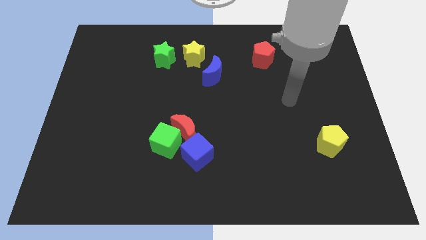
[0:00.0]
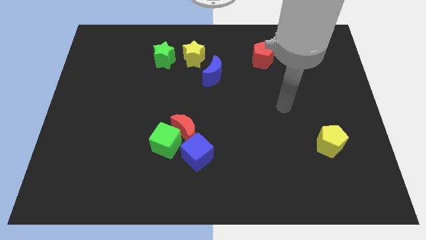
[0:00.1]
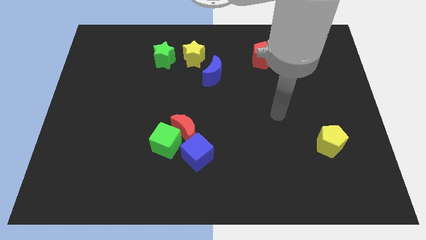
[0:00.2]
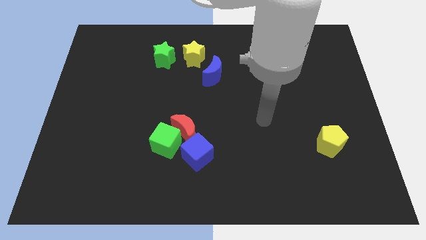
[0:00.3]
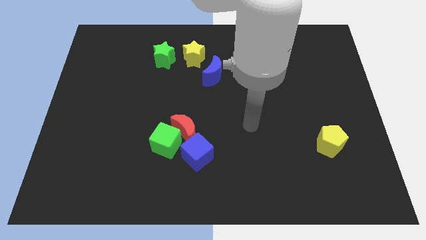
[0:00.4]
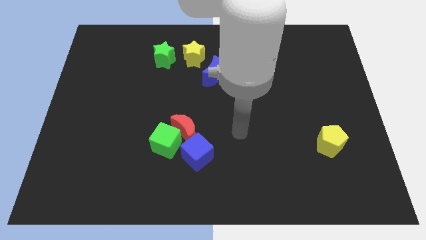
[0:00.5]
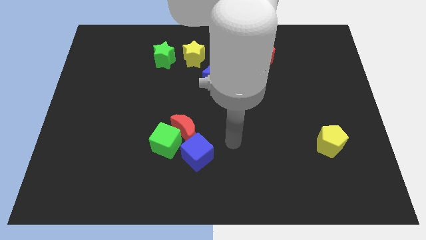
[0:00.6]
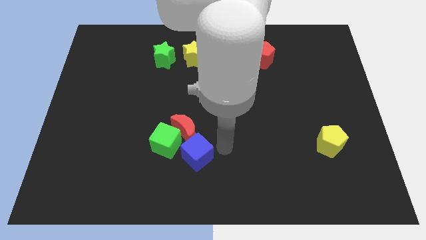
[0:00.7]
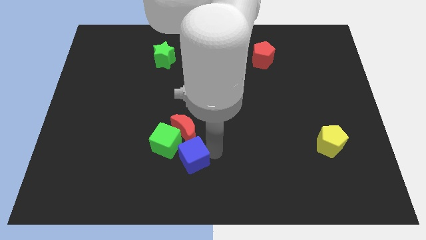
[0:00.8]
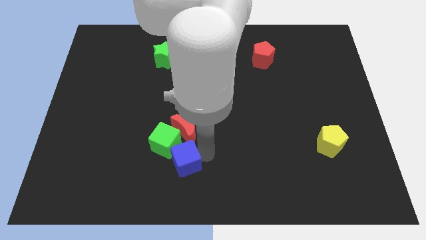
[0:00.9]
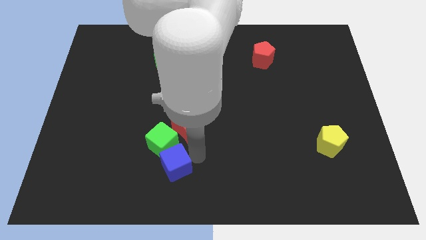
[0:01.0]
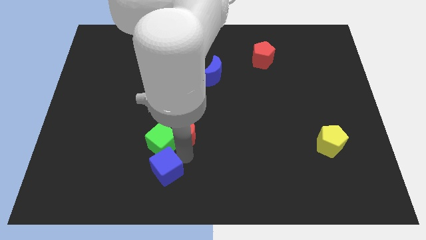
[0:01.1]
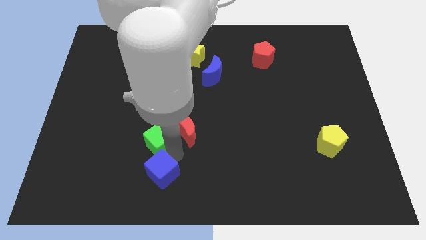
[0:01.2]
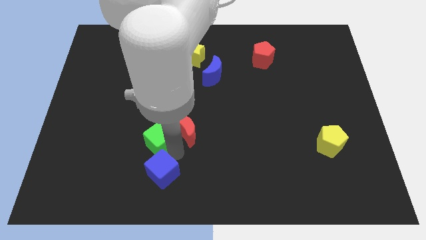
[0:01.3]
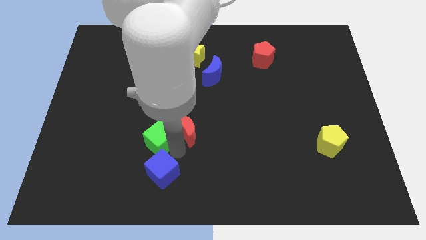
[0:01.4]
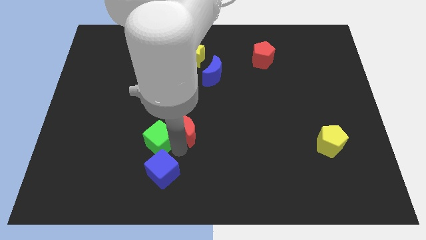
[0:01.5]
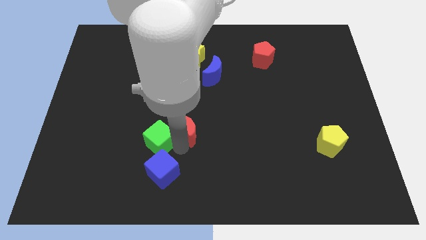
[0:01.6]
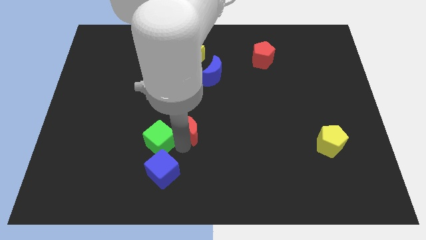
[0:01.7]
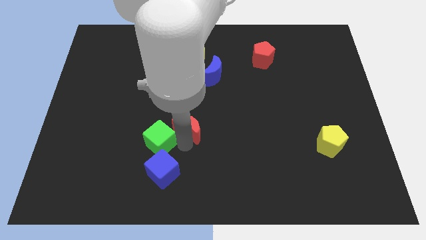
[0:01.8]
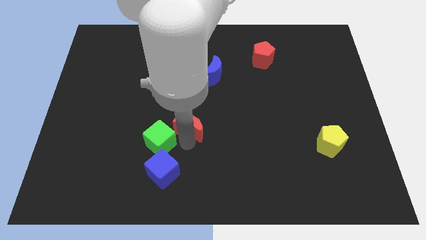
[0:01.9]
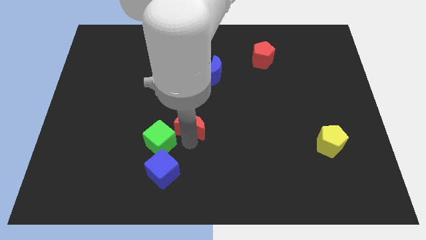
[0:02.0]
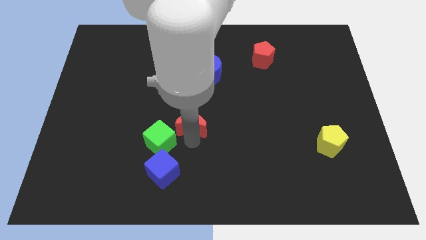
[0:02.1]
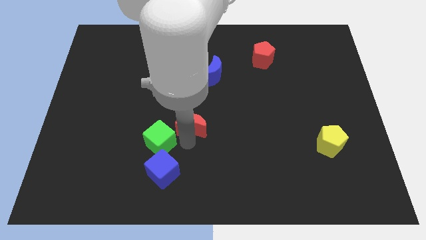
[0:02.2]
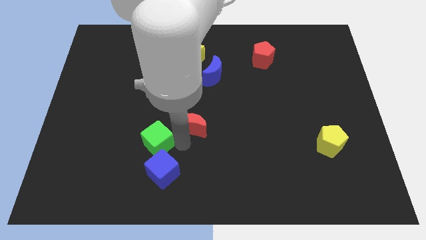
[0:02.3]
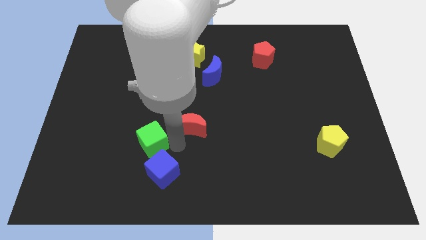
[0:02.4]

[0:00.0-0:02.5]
pull the red moon apart from the green cube and blue cube

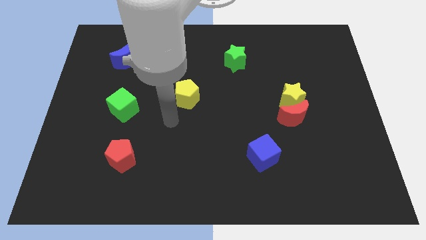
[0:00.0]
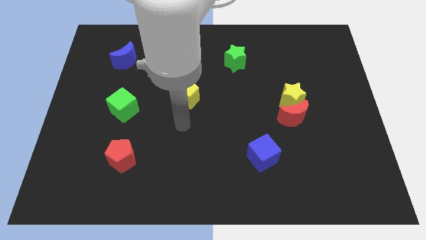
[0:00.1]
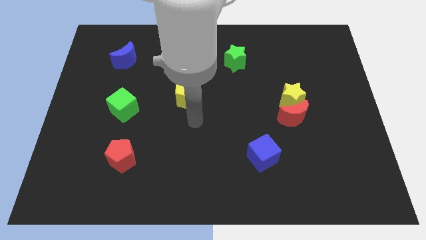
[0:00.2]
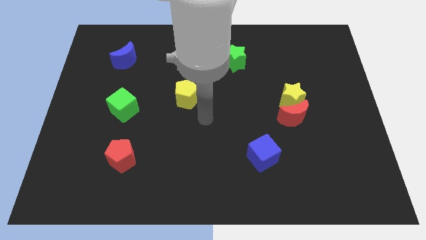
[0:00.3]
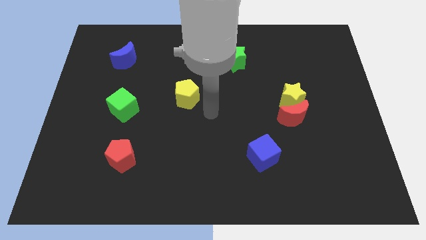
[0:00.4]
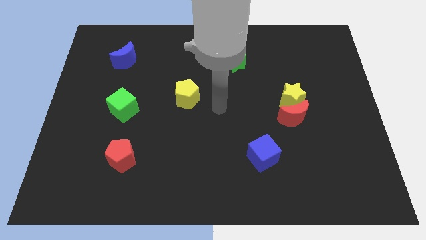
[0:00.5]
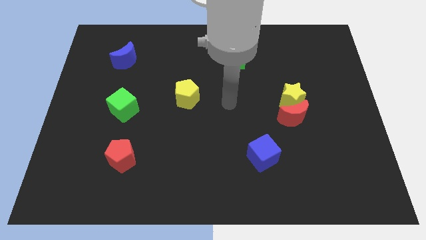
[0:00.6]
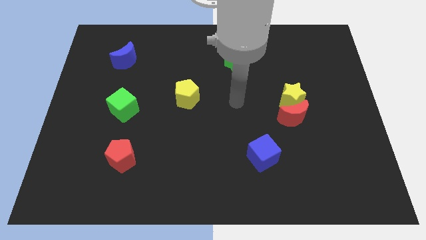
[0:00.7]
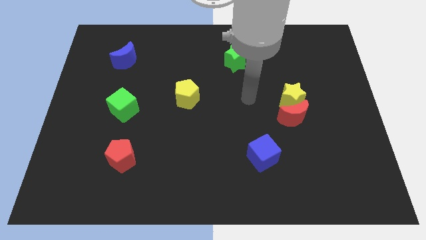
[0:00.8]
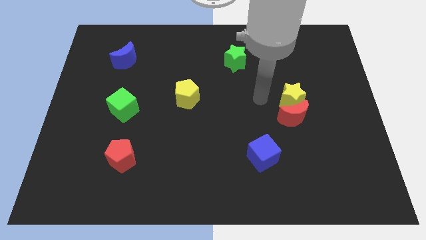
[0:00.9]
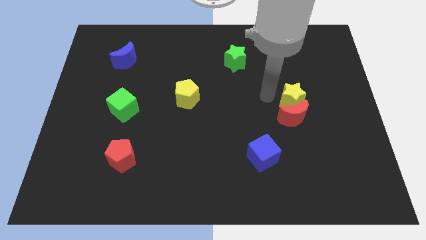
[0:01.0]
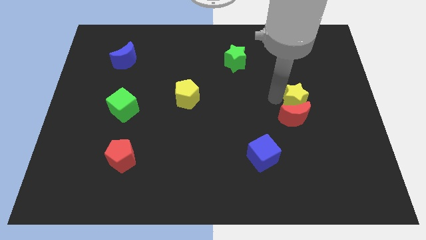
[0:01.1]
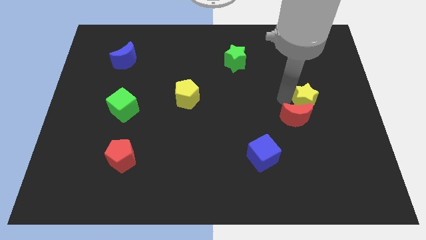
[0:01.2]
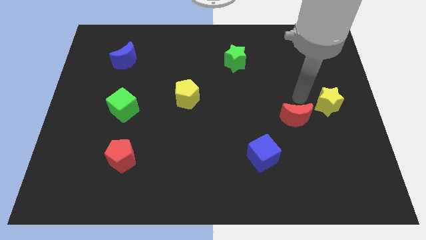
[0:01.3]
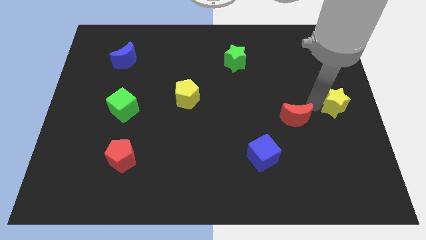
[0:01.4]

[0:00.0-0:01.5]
move the red moon away from the yellow star

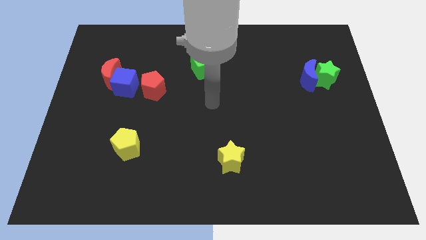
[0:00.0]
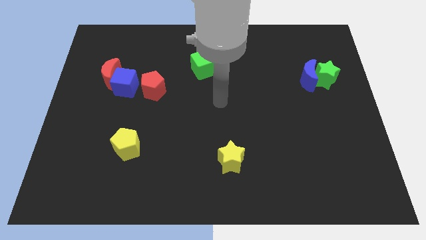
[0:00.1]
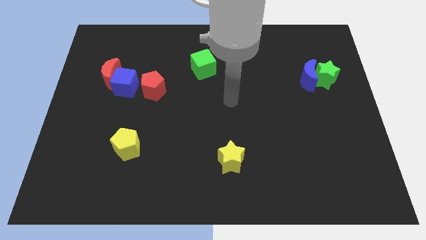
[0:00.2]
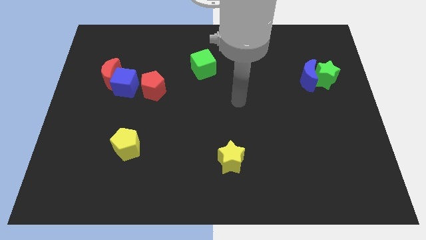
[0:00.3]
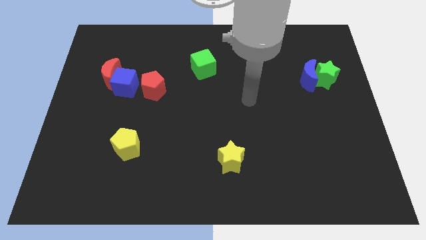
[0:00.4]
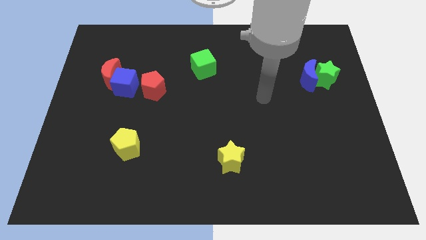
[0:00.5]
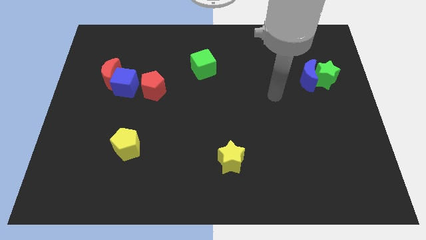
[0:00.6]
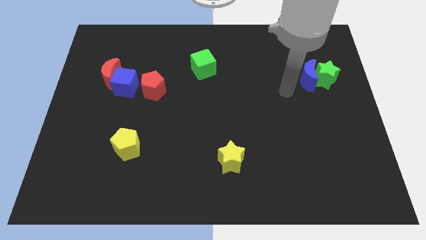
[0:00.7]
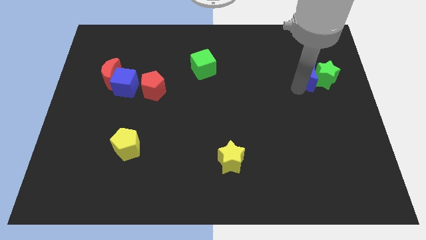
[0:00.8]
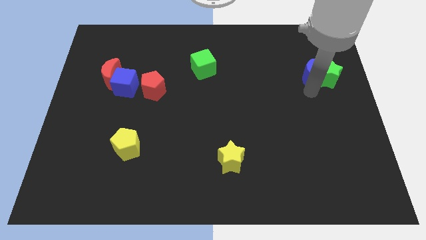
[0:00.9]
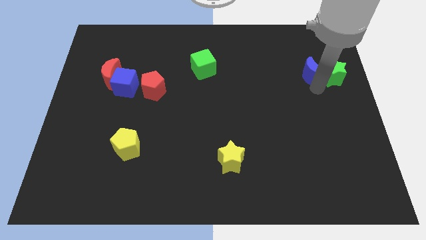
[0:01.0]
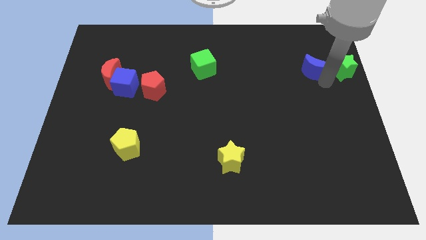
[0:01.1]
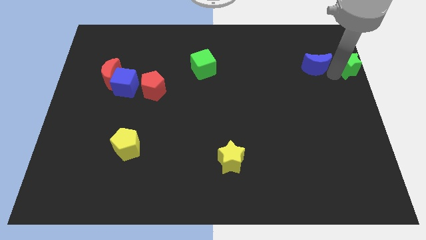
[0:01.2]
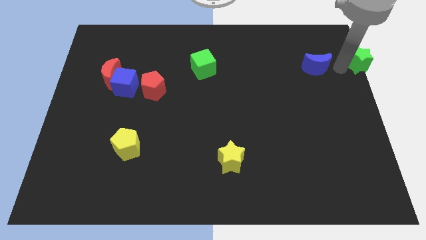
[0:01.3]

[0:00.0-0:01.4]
separate the blue moon from the green star

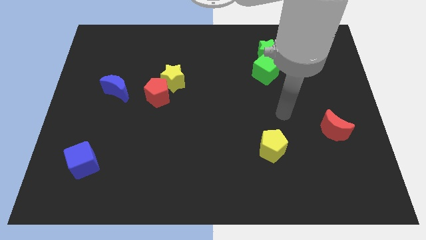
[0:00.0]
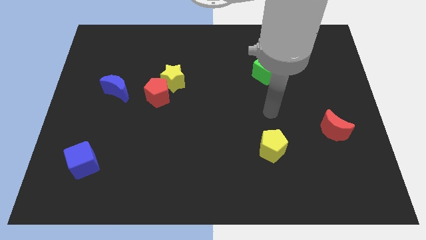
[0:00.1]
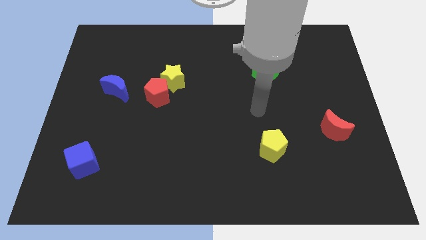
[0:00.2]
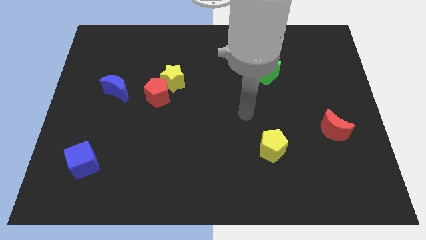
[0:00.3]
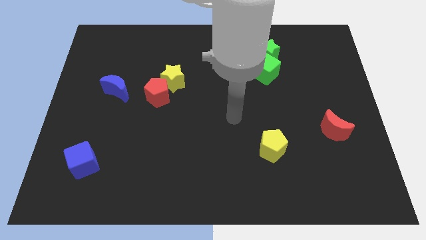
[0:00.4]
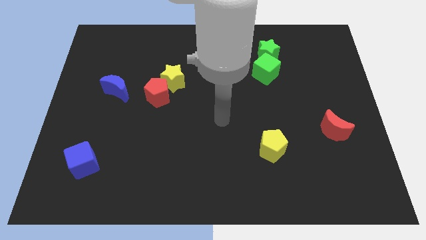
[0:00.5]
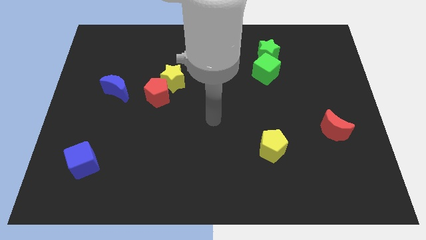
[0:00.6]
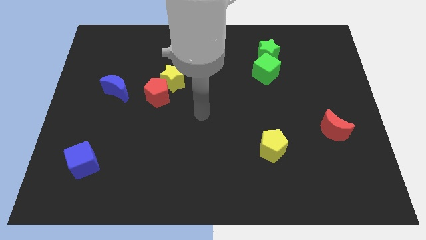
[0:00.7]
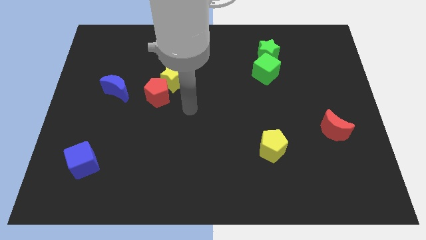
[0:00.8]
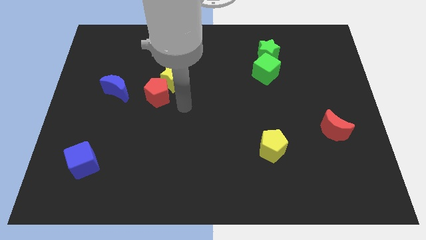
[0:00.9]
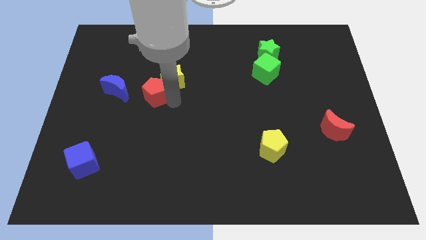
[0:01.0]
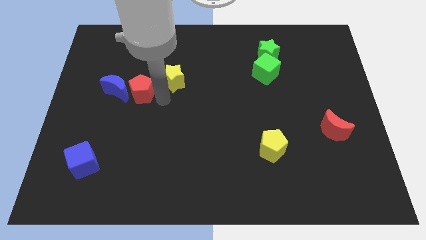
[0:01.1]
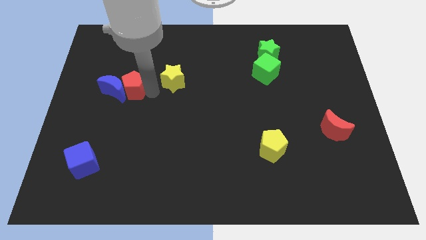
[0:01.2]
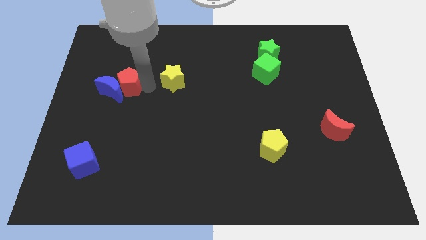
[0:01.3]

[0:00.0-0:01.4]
separate the yellow star from the red pentagon

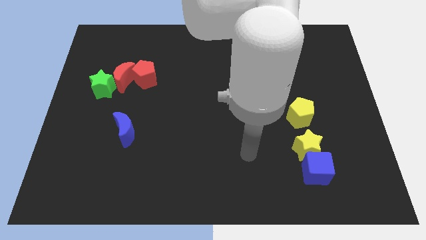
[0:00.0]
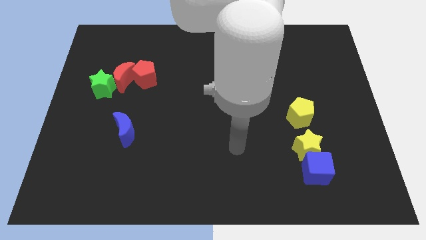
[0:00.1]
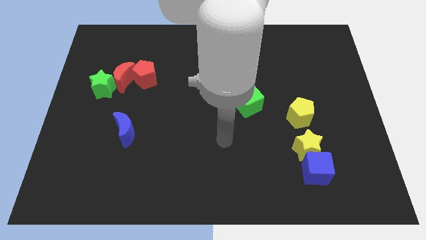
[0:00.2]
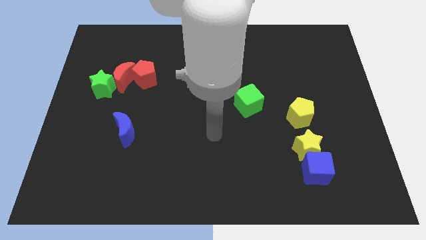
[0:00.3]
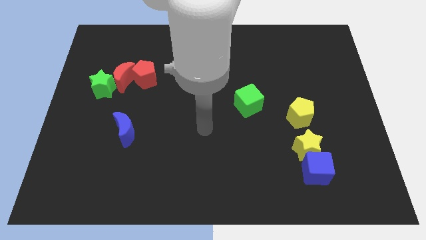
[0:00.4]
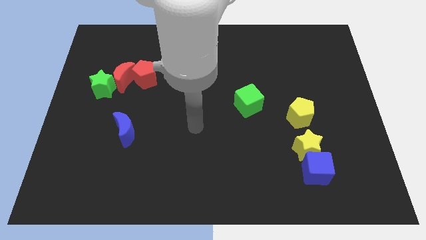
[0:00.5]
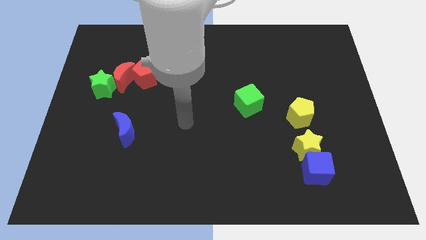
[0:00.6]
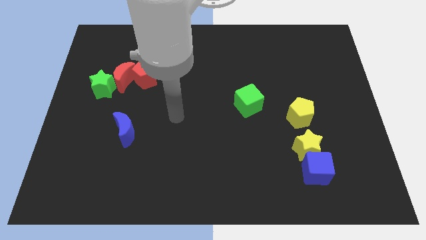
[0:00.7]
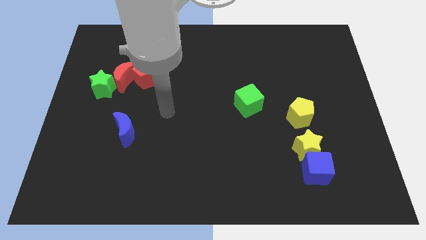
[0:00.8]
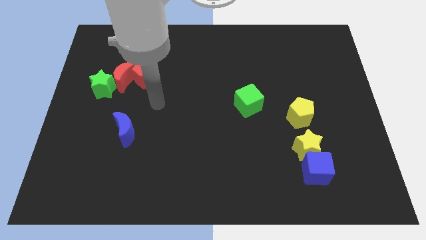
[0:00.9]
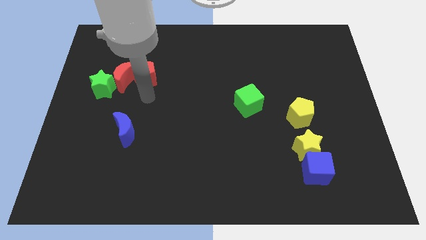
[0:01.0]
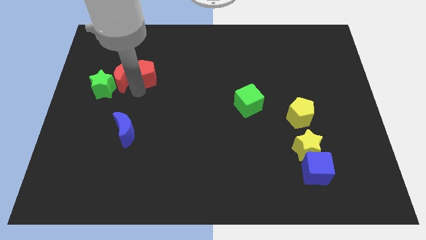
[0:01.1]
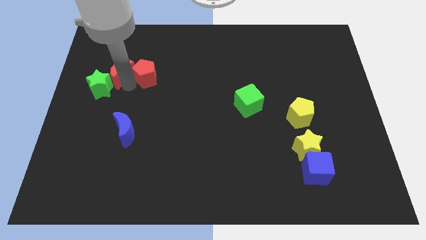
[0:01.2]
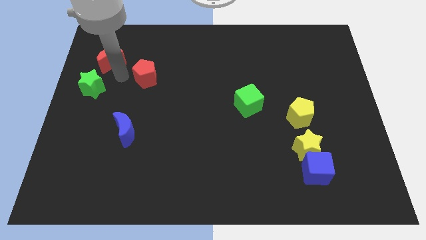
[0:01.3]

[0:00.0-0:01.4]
pull the red pentagon apart from the red moon

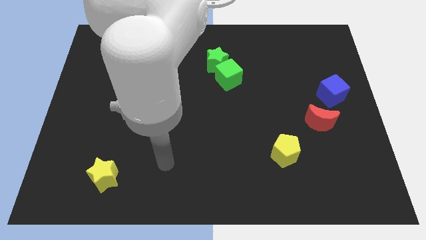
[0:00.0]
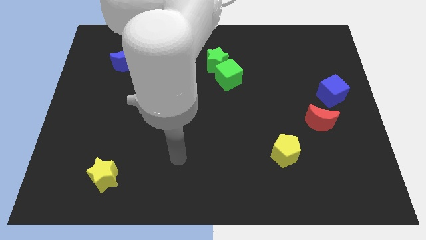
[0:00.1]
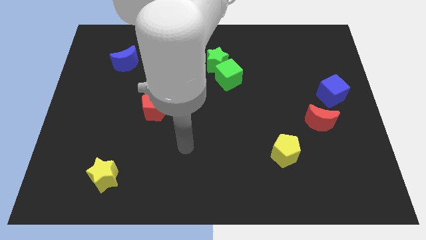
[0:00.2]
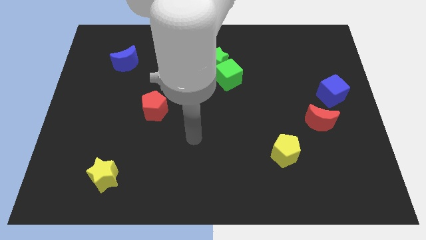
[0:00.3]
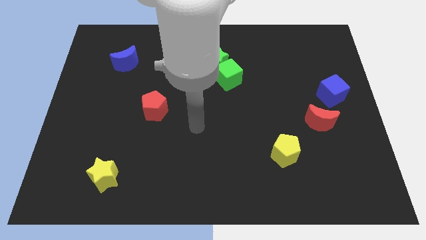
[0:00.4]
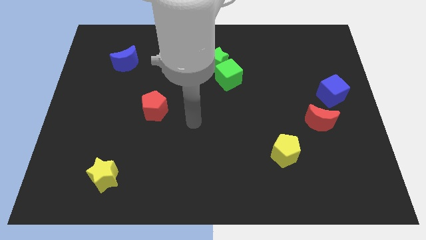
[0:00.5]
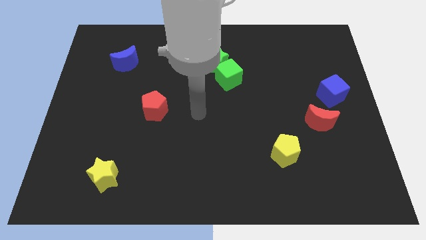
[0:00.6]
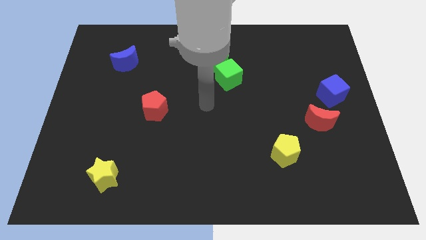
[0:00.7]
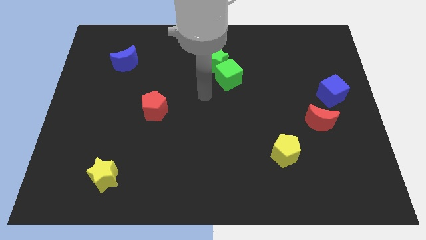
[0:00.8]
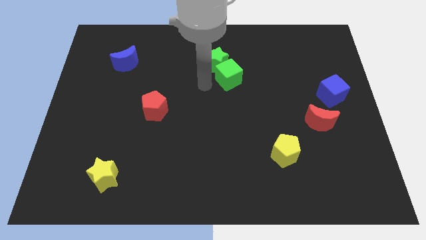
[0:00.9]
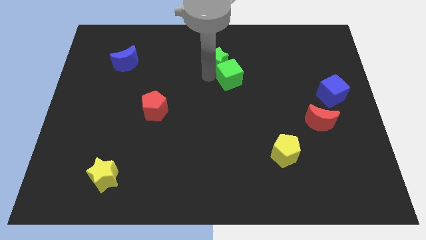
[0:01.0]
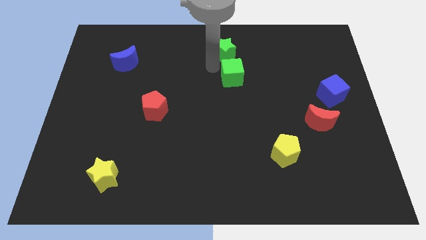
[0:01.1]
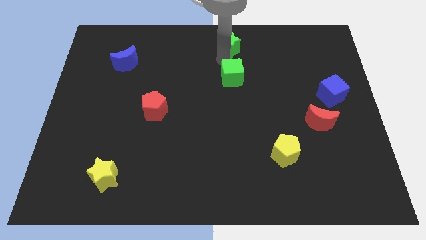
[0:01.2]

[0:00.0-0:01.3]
move the green cube away from the green star
